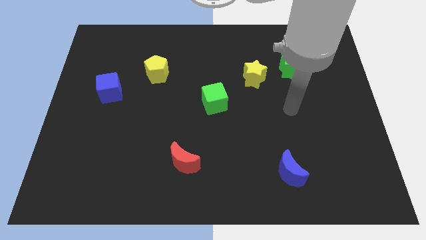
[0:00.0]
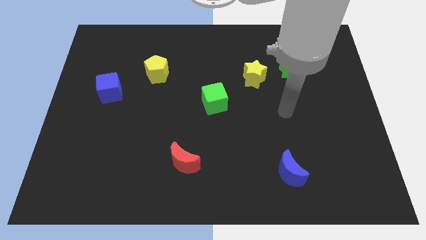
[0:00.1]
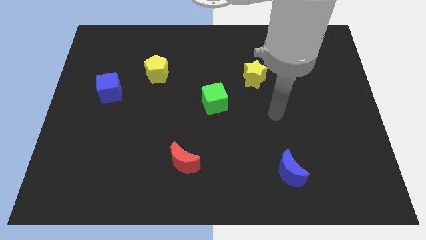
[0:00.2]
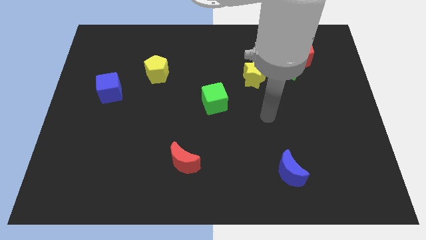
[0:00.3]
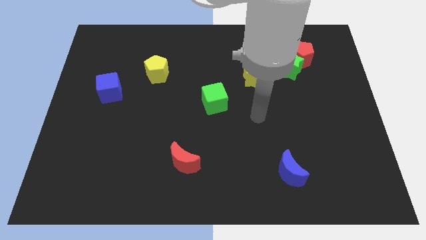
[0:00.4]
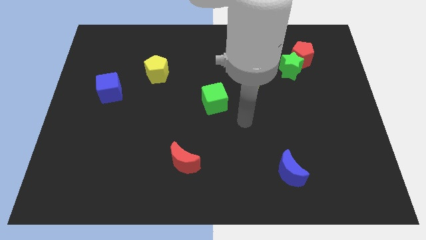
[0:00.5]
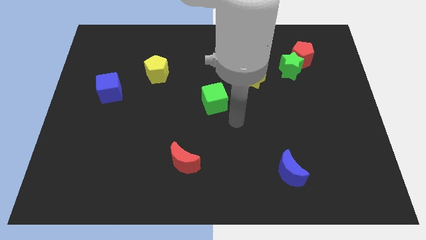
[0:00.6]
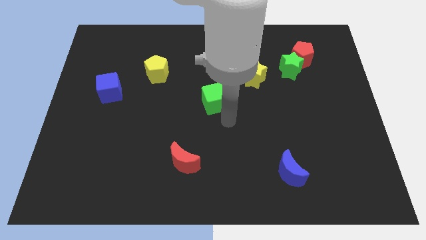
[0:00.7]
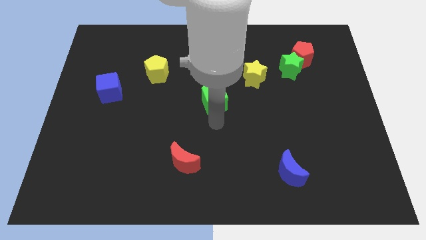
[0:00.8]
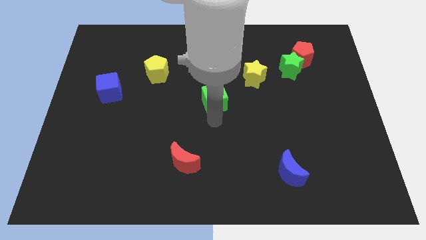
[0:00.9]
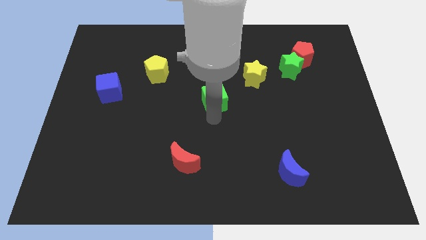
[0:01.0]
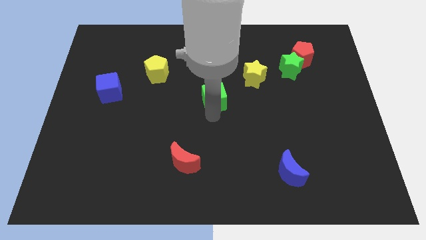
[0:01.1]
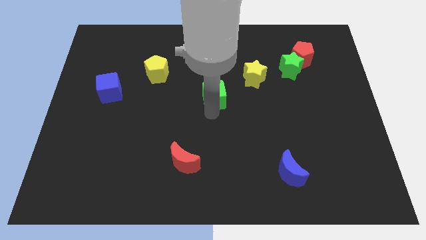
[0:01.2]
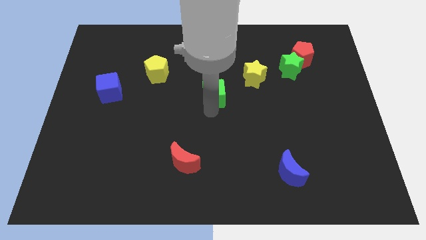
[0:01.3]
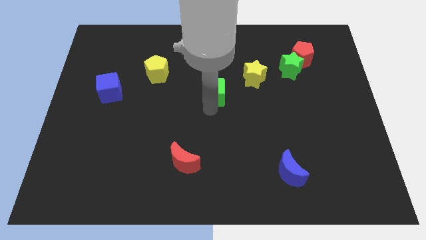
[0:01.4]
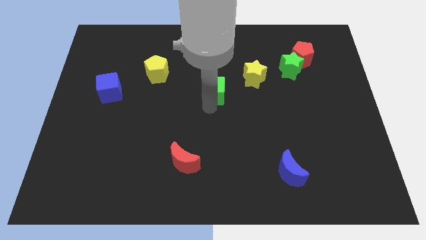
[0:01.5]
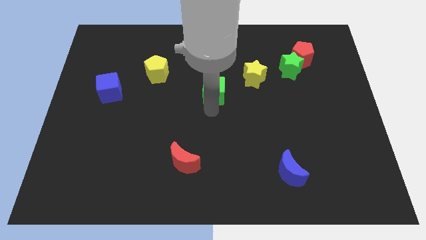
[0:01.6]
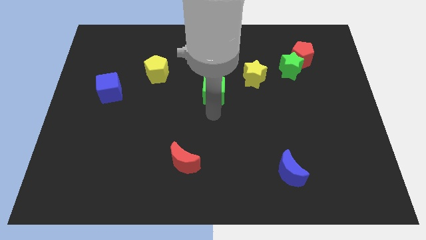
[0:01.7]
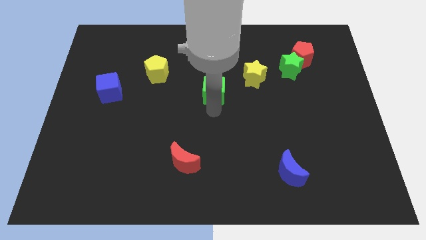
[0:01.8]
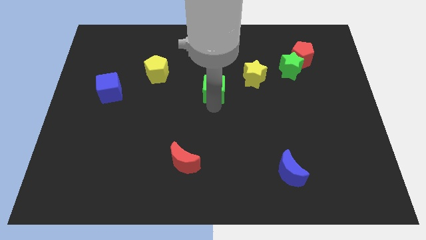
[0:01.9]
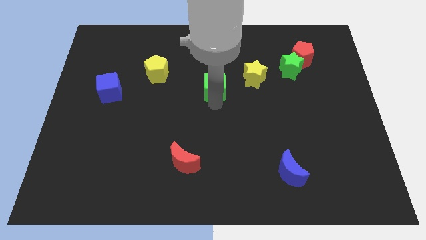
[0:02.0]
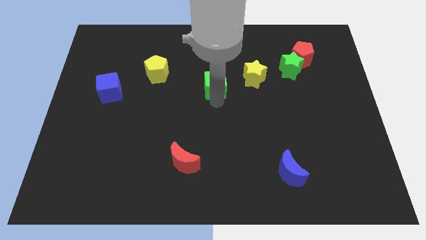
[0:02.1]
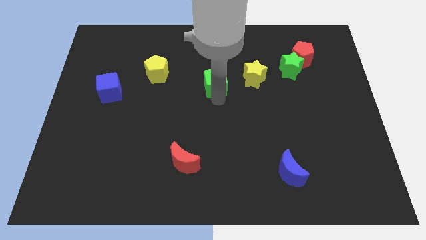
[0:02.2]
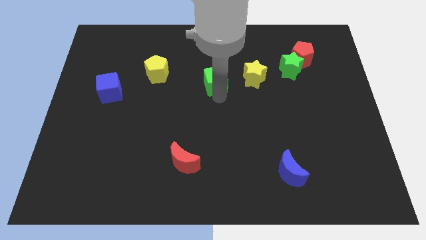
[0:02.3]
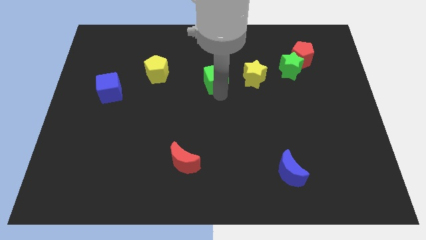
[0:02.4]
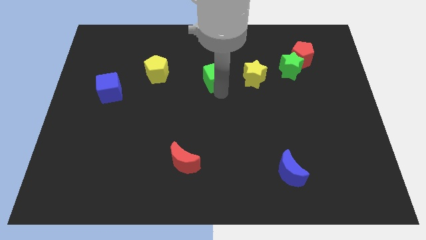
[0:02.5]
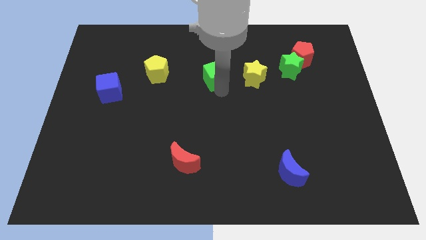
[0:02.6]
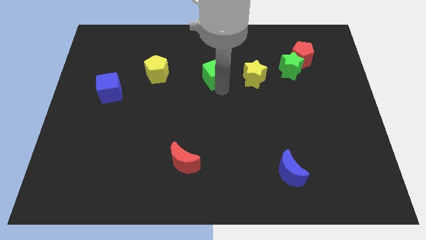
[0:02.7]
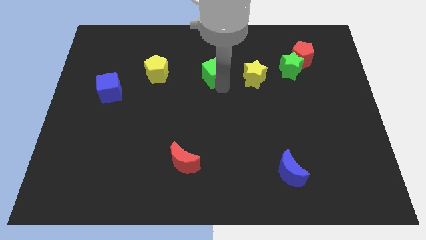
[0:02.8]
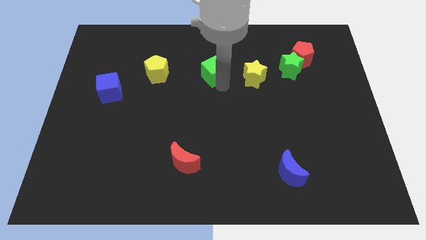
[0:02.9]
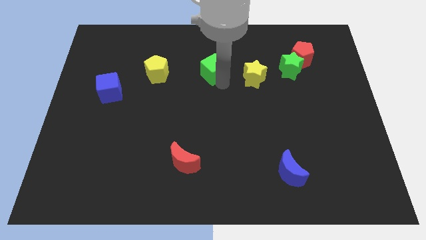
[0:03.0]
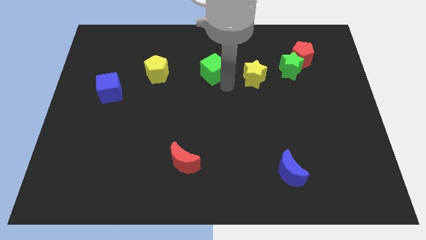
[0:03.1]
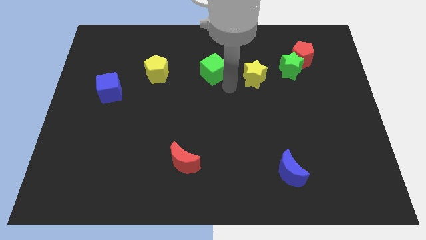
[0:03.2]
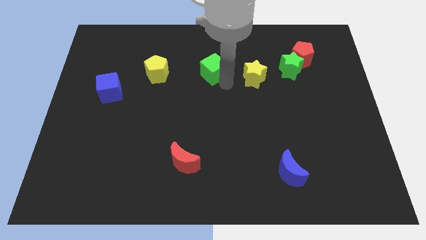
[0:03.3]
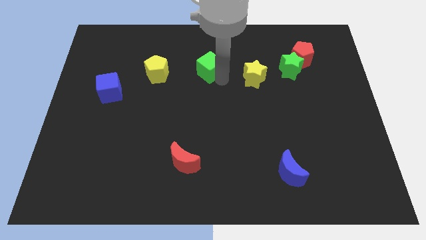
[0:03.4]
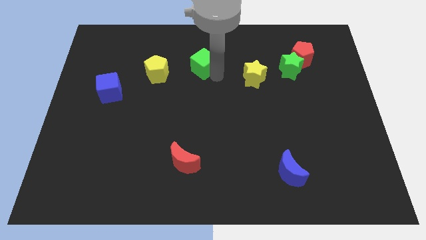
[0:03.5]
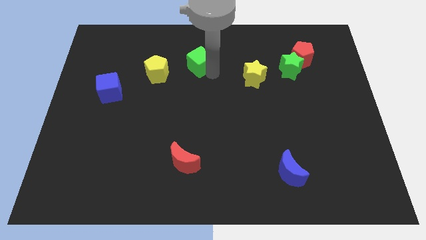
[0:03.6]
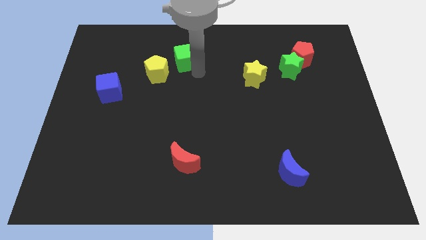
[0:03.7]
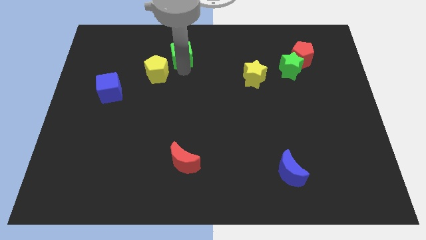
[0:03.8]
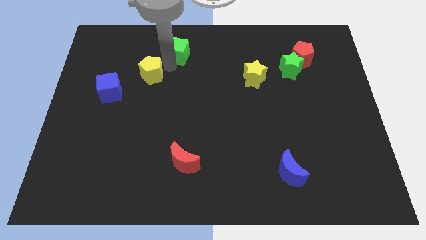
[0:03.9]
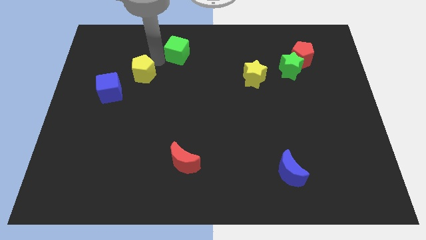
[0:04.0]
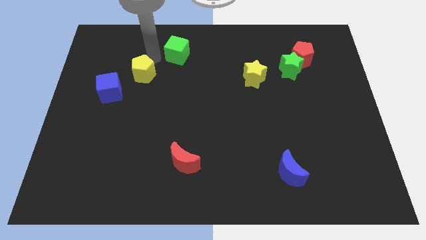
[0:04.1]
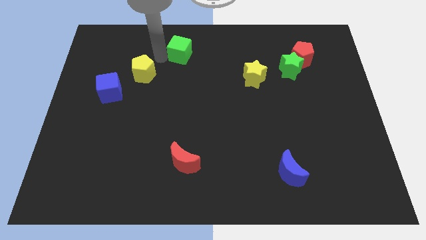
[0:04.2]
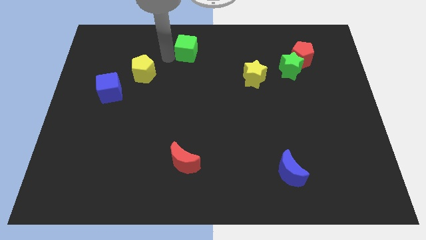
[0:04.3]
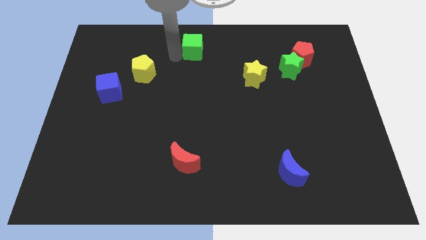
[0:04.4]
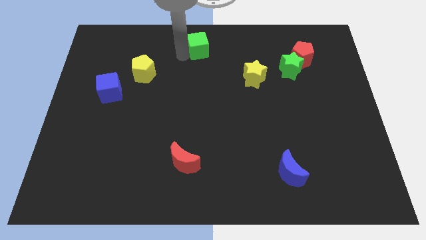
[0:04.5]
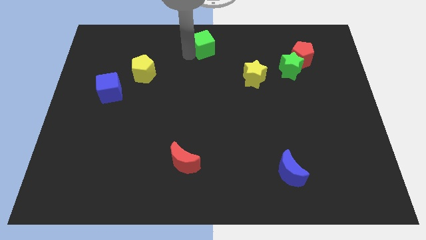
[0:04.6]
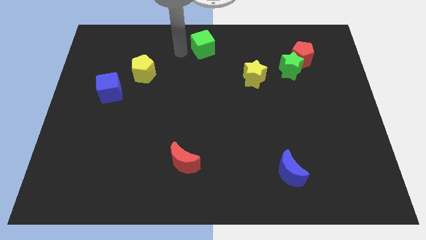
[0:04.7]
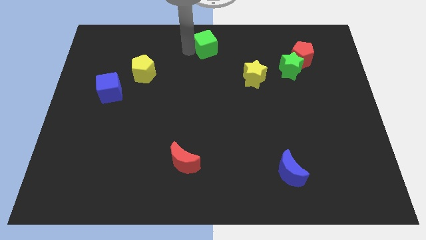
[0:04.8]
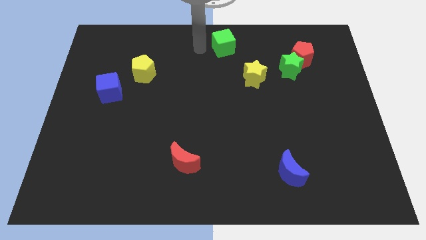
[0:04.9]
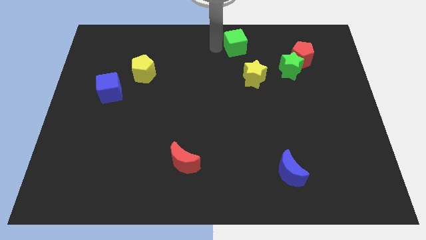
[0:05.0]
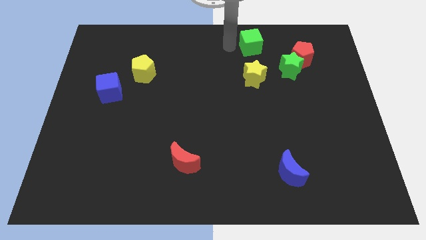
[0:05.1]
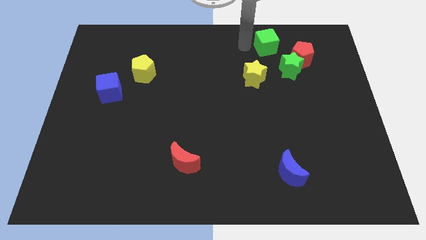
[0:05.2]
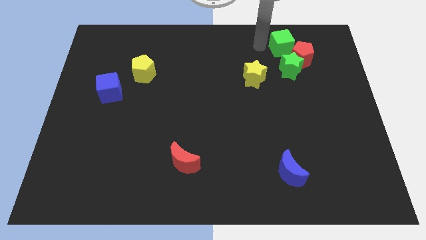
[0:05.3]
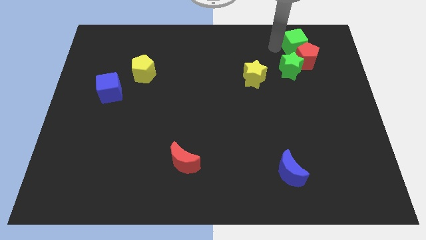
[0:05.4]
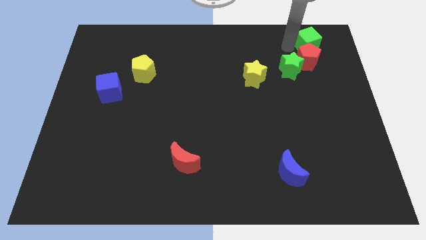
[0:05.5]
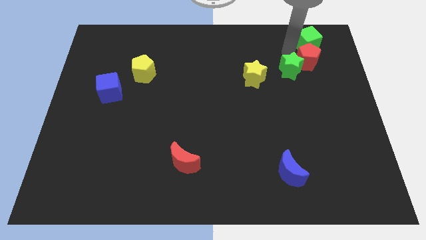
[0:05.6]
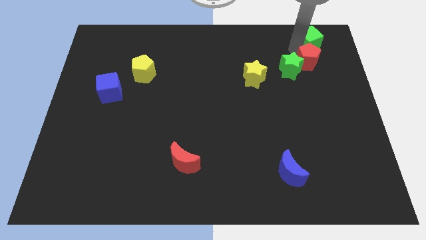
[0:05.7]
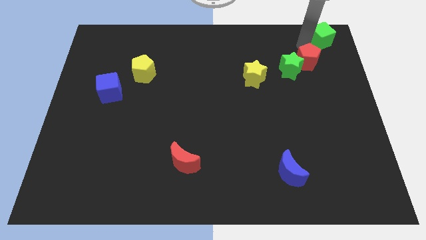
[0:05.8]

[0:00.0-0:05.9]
put the green cube to the top right corner
